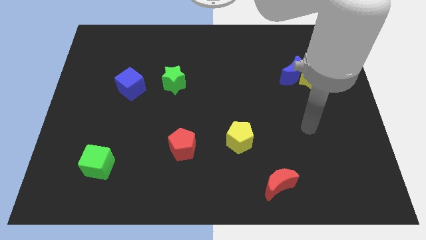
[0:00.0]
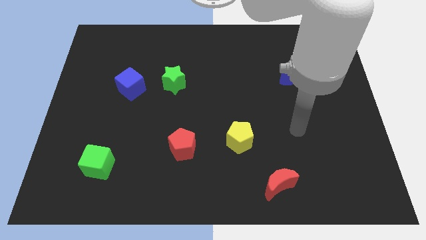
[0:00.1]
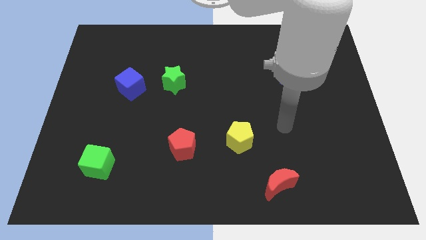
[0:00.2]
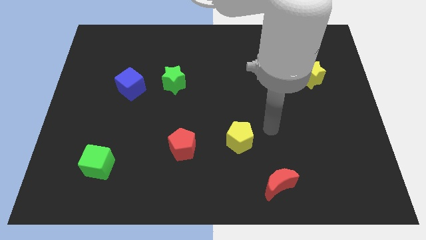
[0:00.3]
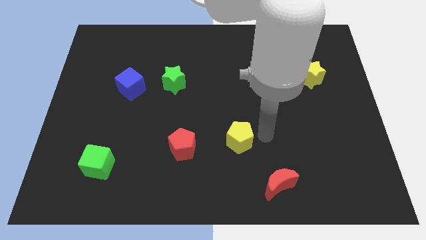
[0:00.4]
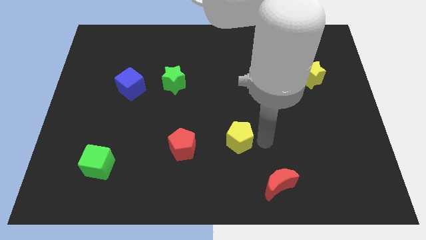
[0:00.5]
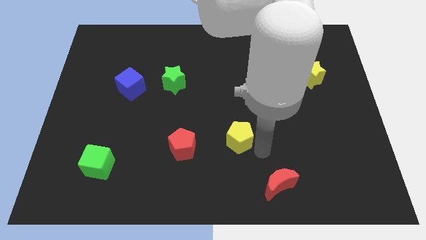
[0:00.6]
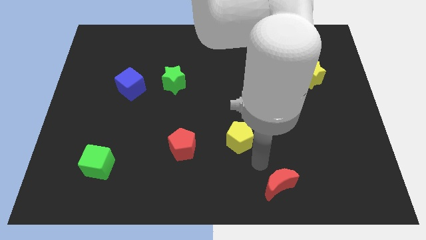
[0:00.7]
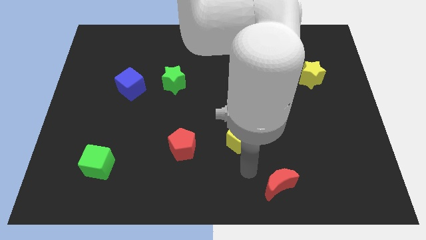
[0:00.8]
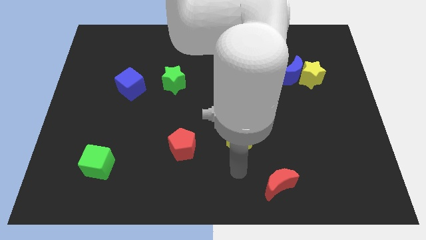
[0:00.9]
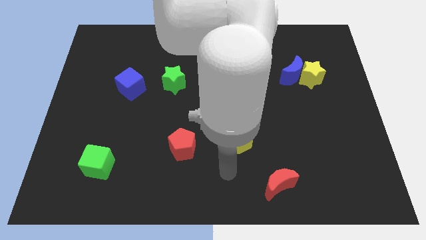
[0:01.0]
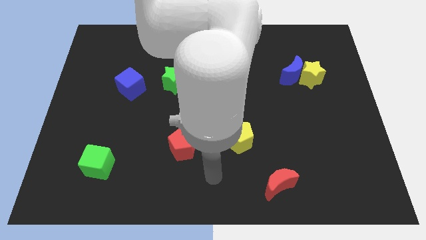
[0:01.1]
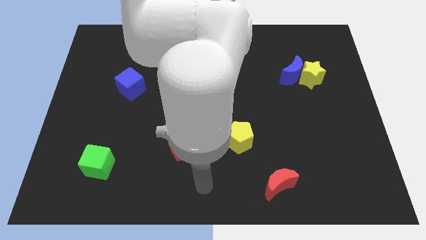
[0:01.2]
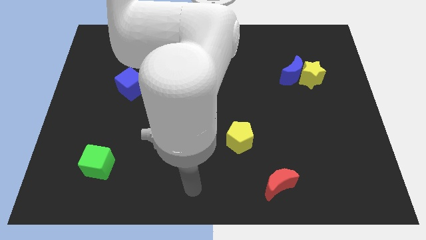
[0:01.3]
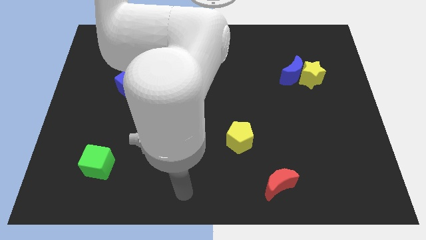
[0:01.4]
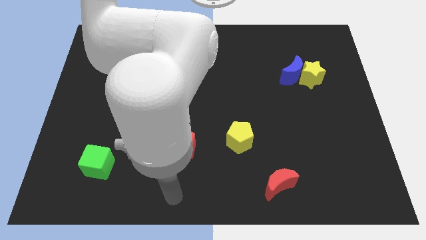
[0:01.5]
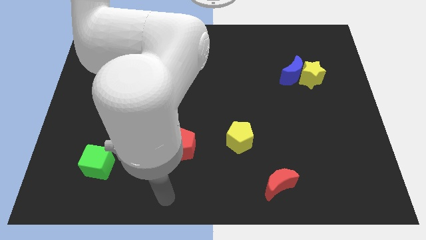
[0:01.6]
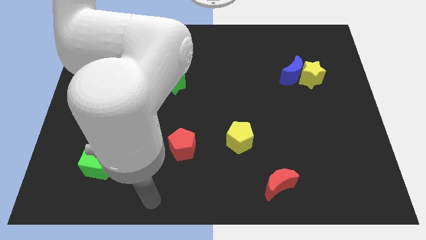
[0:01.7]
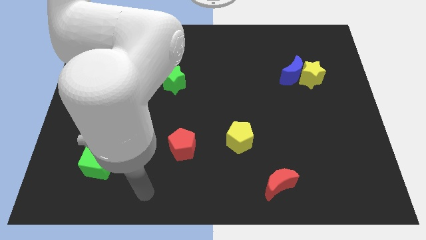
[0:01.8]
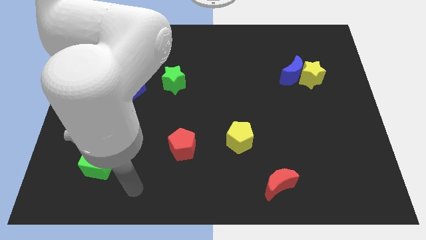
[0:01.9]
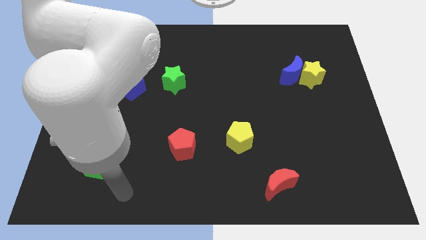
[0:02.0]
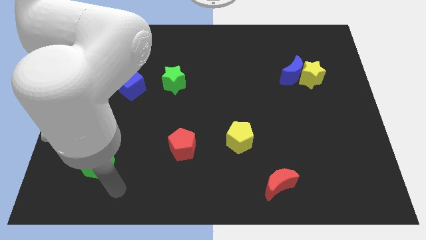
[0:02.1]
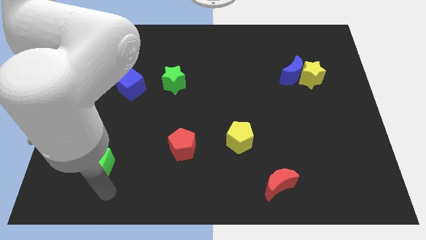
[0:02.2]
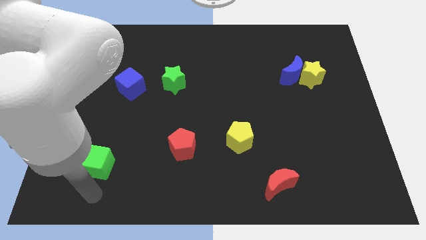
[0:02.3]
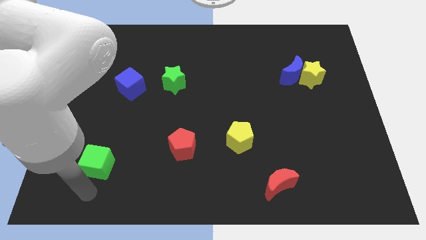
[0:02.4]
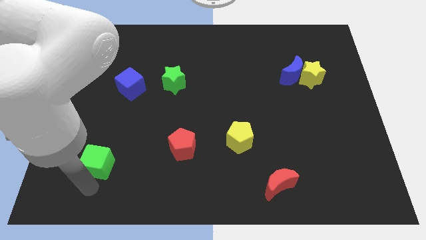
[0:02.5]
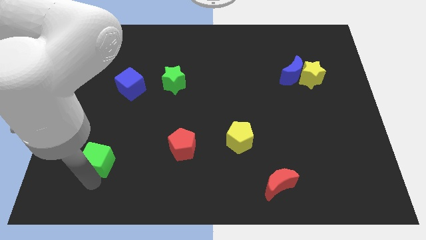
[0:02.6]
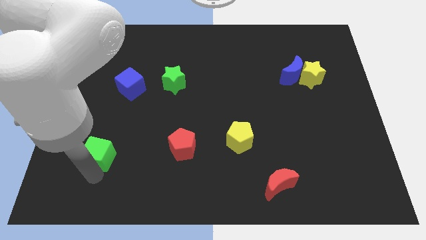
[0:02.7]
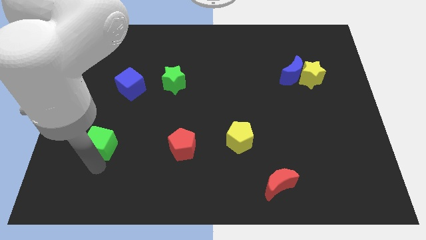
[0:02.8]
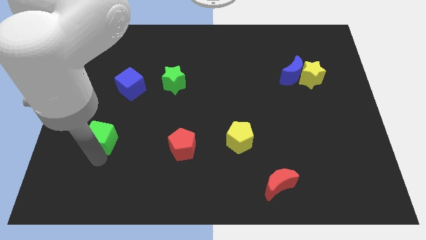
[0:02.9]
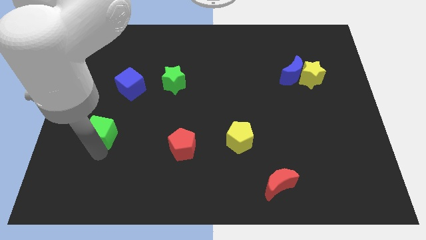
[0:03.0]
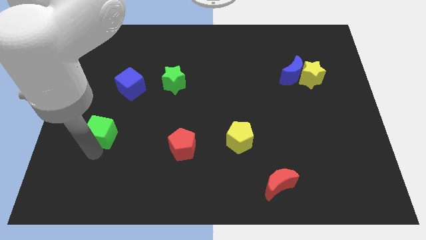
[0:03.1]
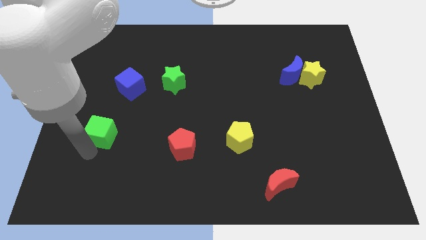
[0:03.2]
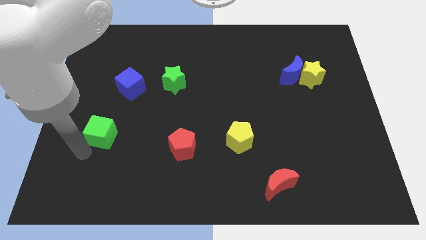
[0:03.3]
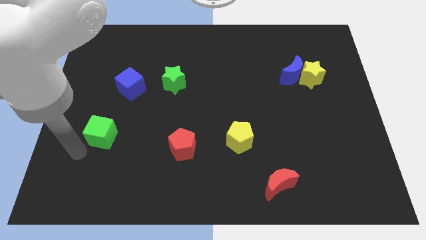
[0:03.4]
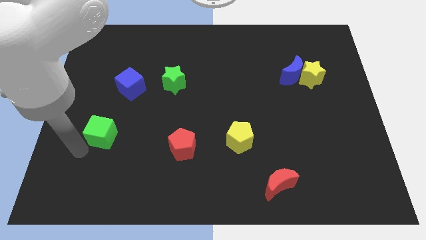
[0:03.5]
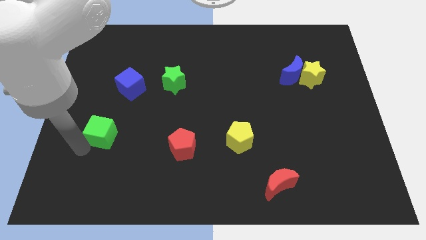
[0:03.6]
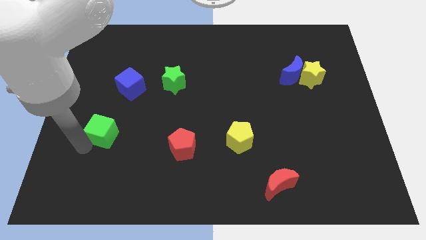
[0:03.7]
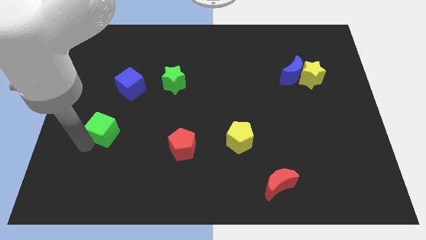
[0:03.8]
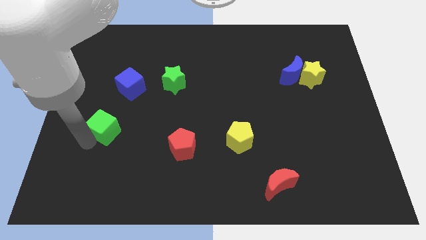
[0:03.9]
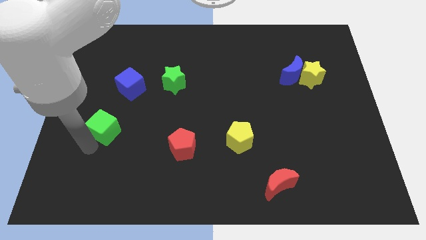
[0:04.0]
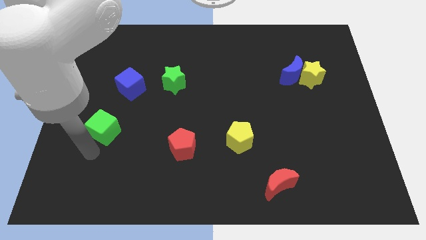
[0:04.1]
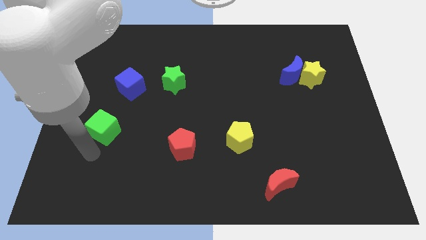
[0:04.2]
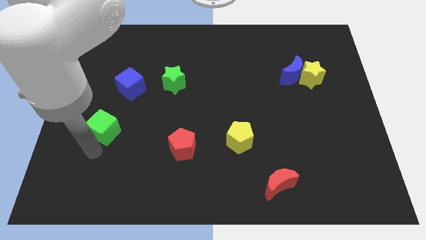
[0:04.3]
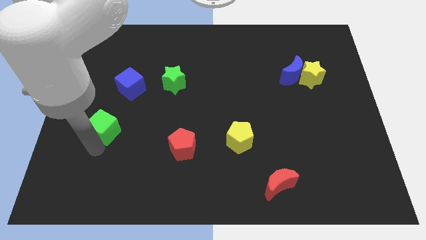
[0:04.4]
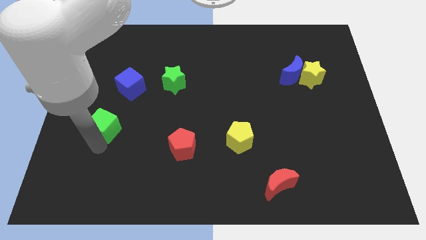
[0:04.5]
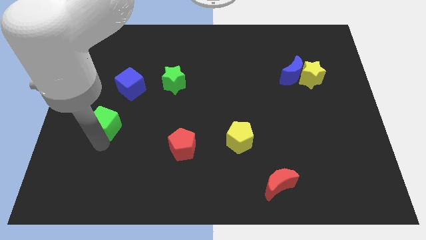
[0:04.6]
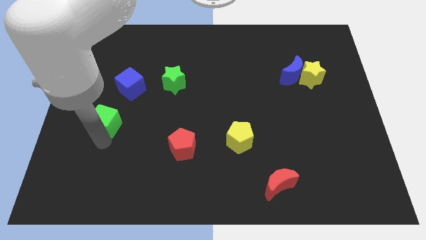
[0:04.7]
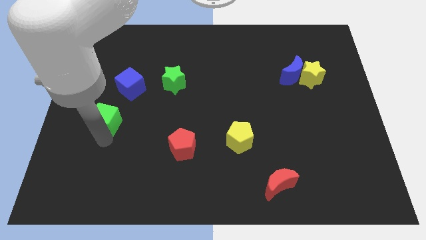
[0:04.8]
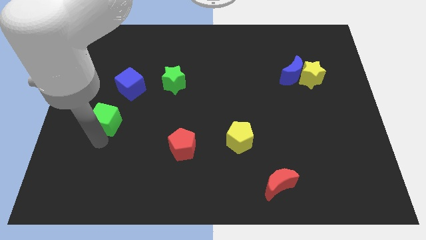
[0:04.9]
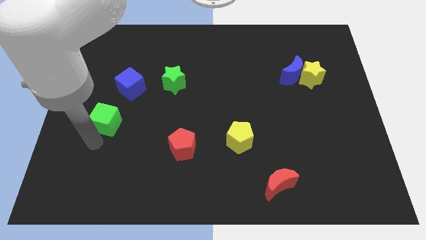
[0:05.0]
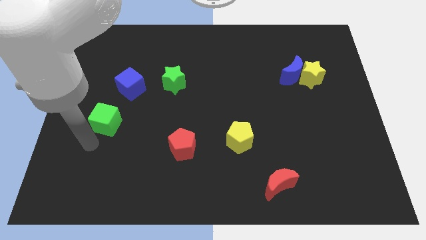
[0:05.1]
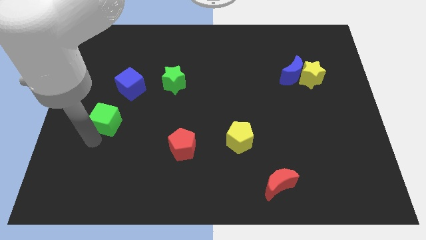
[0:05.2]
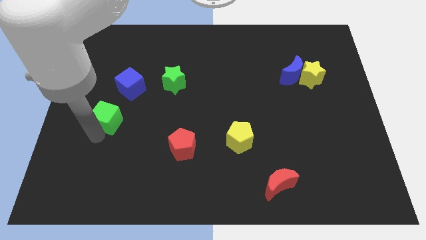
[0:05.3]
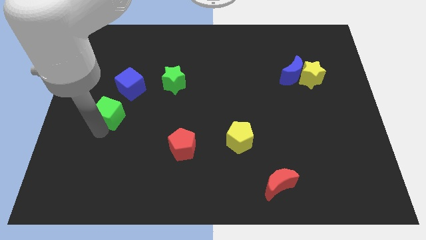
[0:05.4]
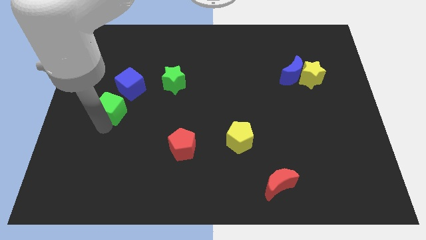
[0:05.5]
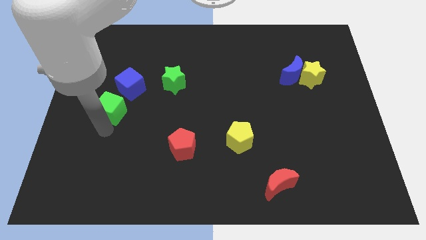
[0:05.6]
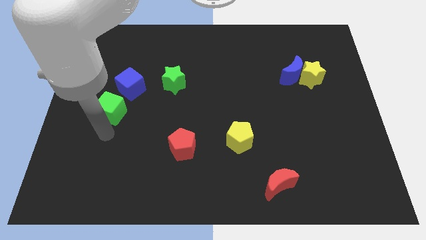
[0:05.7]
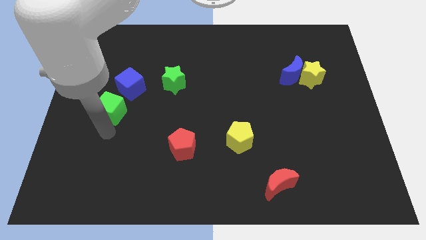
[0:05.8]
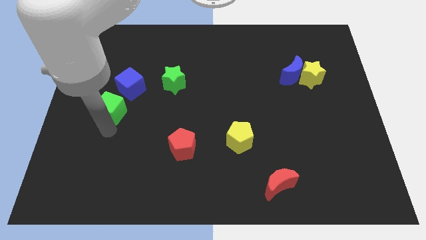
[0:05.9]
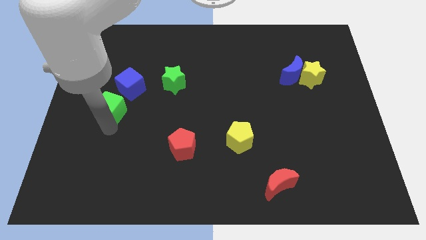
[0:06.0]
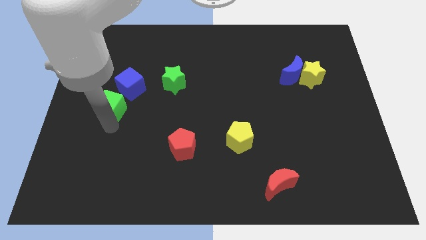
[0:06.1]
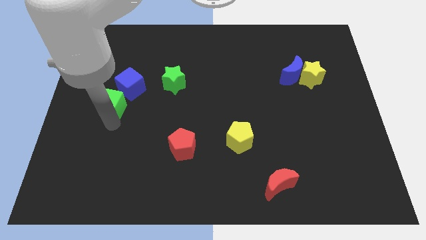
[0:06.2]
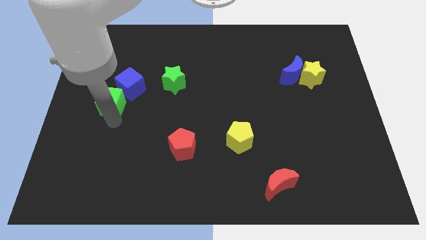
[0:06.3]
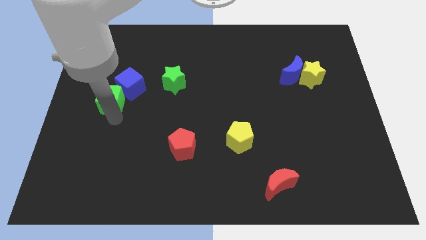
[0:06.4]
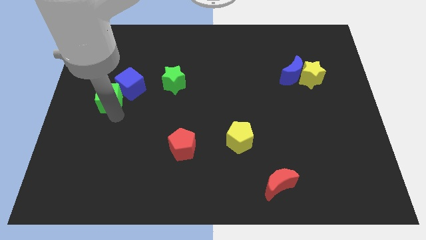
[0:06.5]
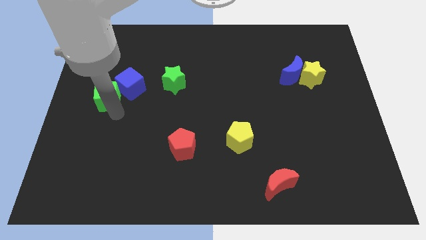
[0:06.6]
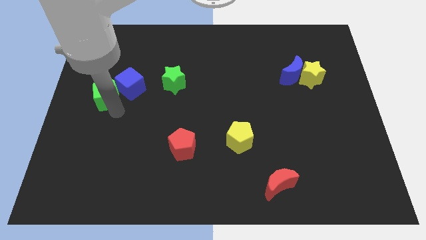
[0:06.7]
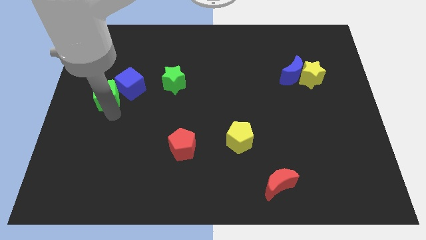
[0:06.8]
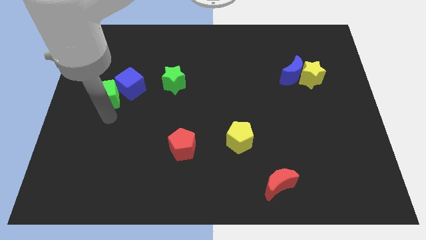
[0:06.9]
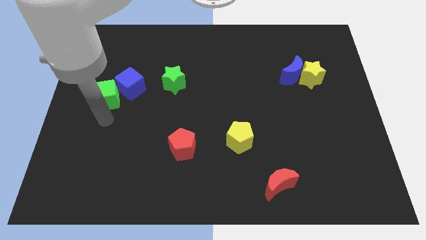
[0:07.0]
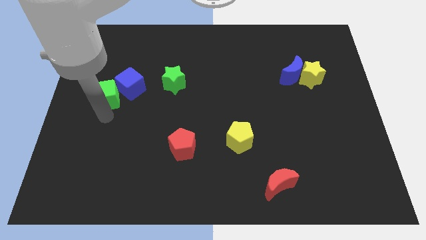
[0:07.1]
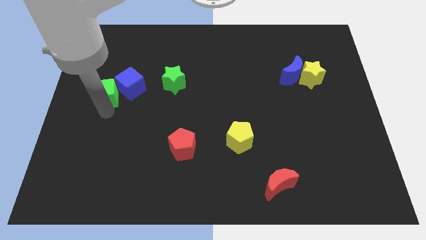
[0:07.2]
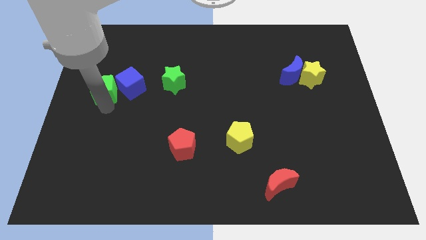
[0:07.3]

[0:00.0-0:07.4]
push the green cube upwards

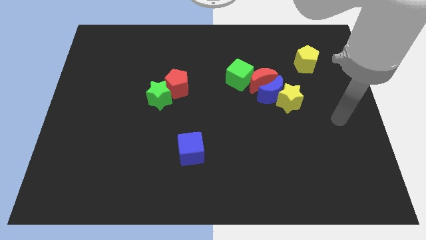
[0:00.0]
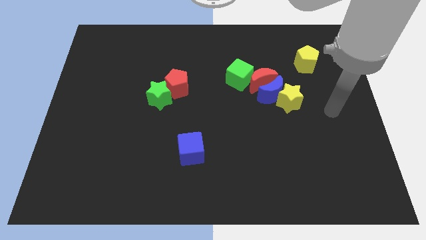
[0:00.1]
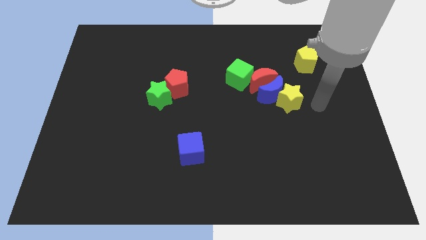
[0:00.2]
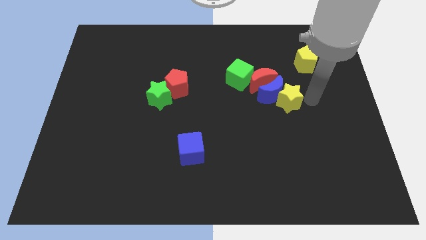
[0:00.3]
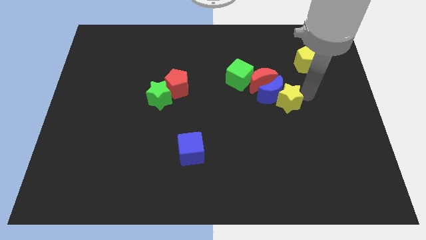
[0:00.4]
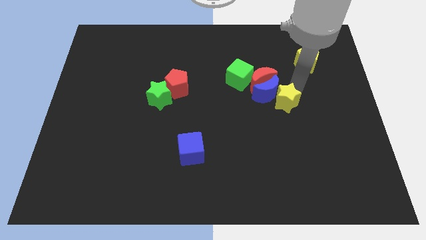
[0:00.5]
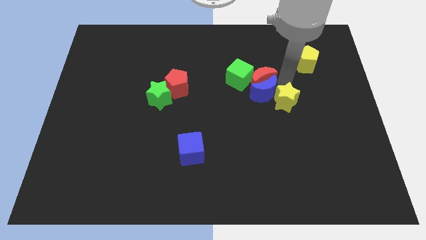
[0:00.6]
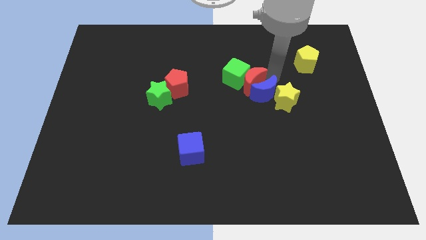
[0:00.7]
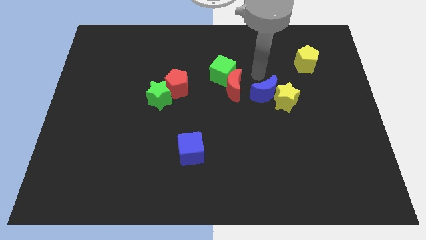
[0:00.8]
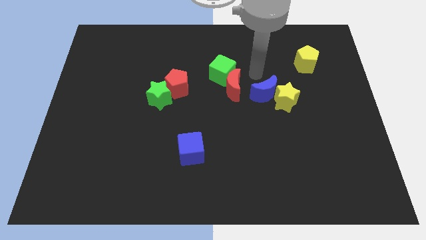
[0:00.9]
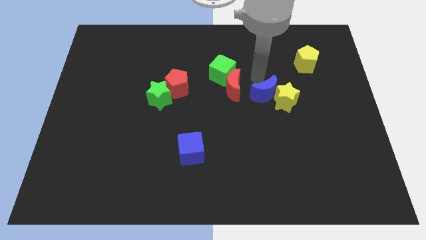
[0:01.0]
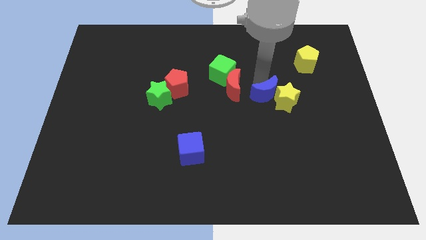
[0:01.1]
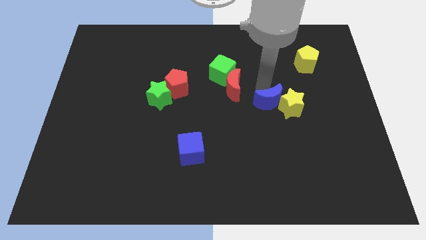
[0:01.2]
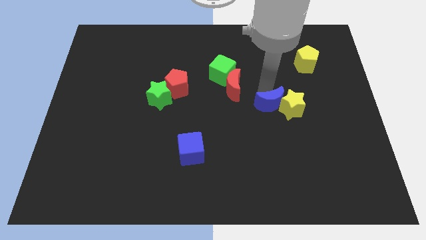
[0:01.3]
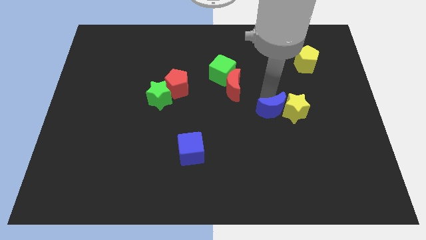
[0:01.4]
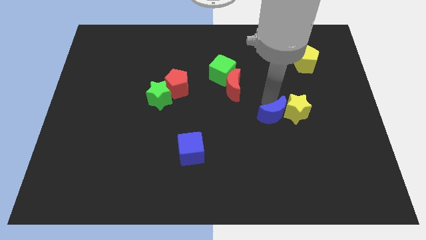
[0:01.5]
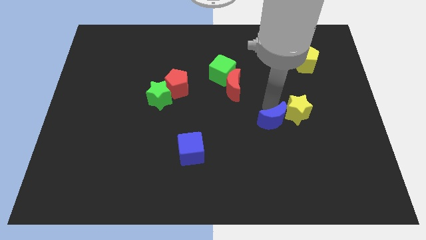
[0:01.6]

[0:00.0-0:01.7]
slide the blue moon down a little bit
